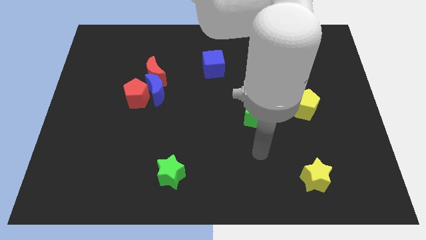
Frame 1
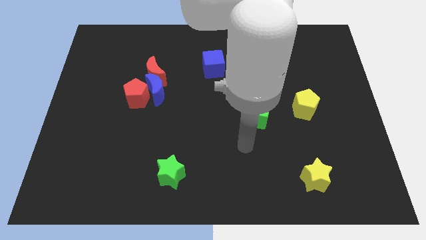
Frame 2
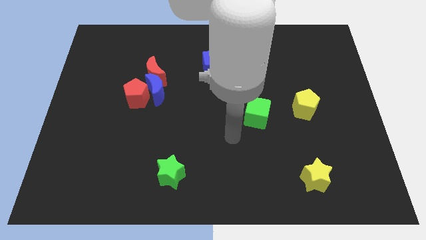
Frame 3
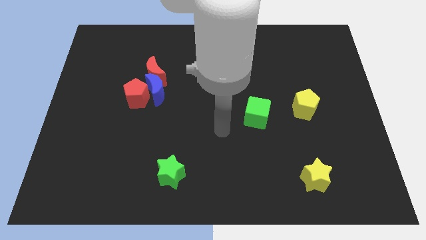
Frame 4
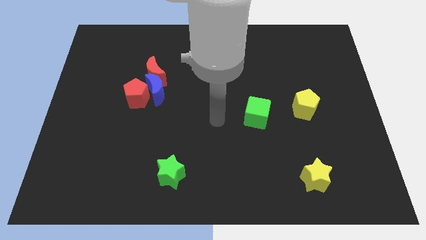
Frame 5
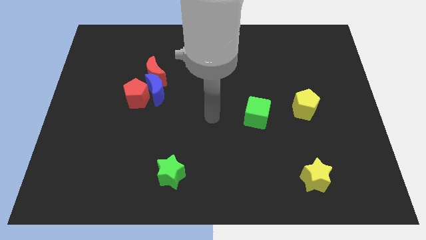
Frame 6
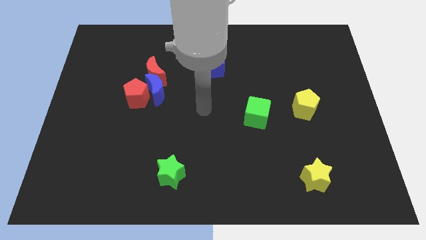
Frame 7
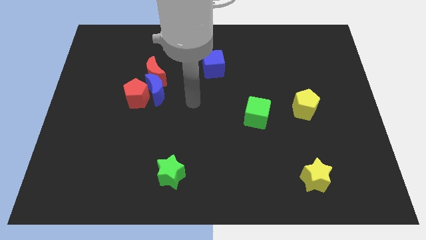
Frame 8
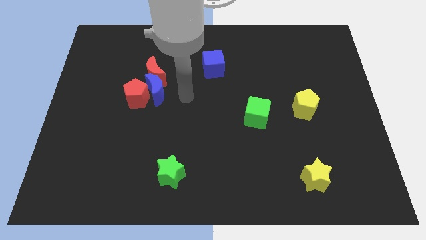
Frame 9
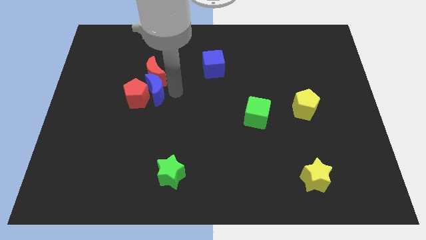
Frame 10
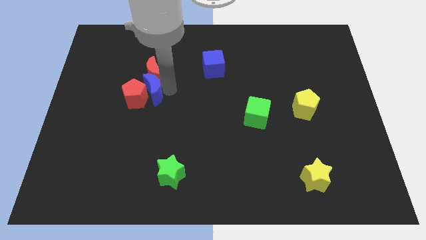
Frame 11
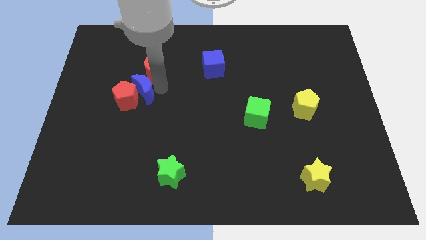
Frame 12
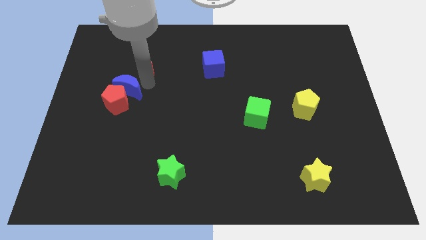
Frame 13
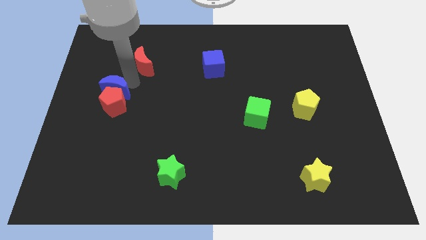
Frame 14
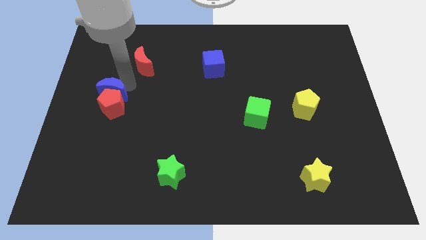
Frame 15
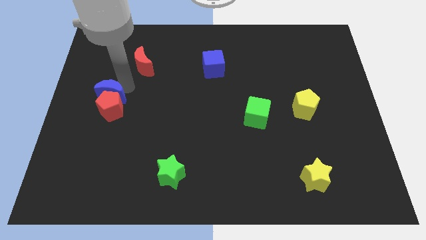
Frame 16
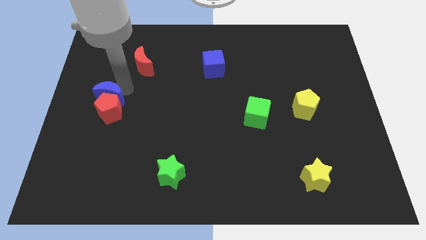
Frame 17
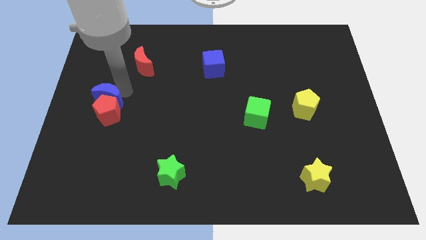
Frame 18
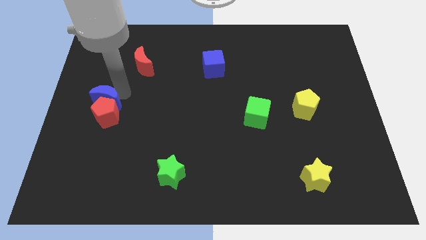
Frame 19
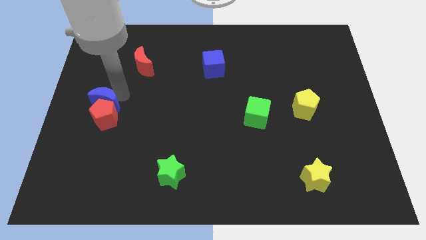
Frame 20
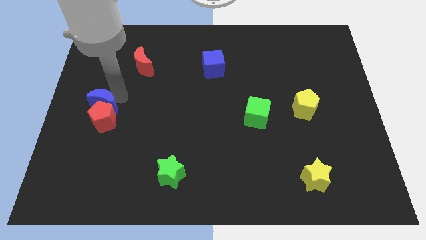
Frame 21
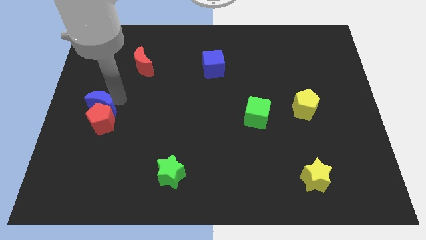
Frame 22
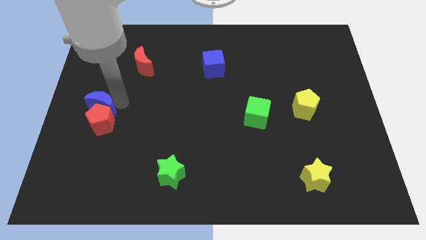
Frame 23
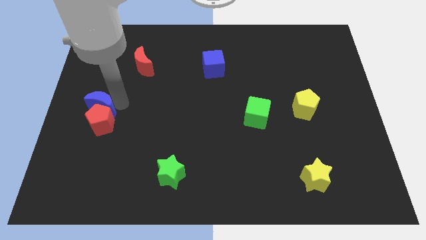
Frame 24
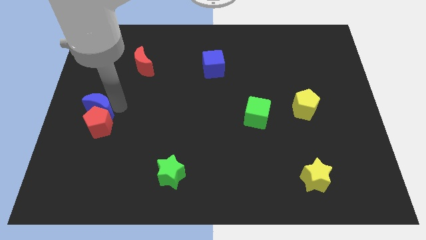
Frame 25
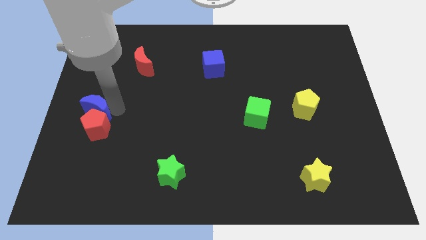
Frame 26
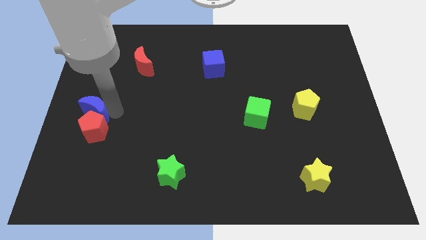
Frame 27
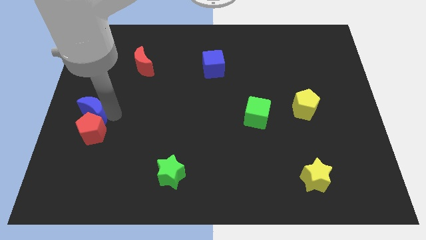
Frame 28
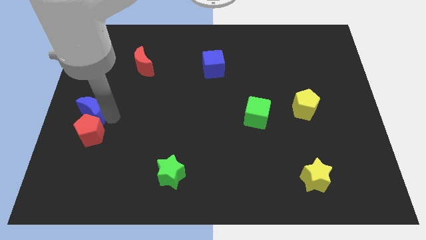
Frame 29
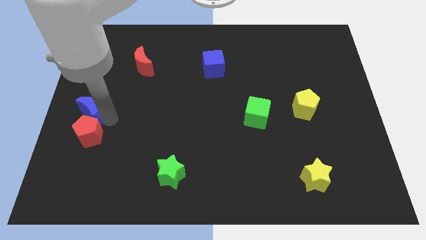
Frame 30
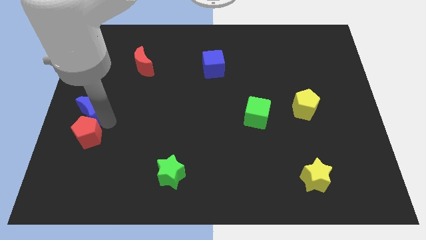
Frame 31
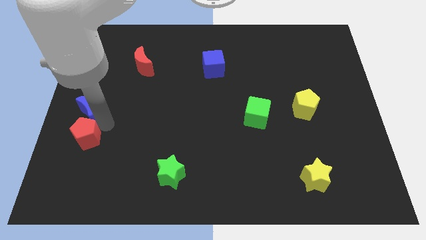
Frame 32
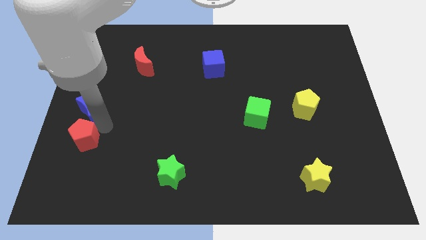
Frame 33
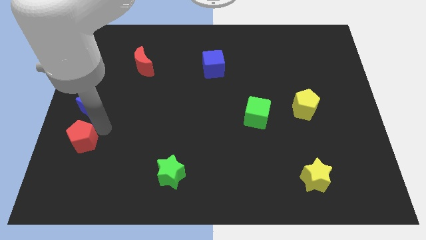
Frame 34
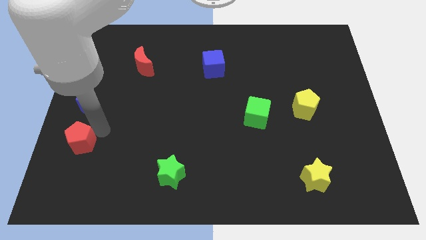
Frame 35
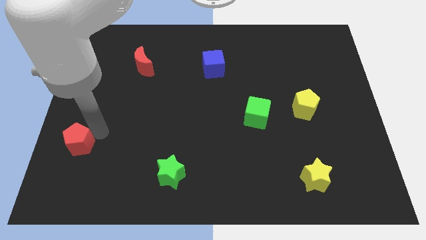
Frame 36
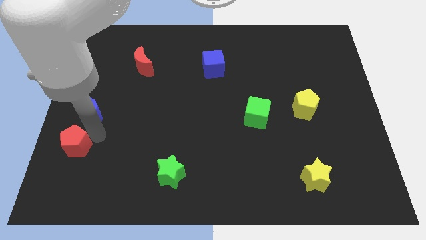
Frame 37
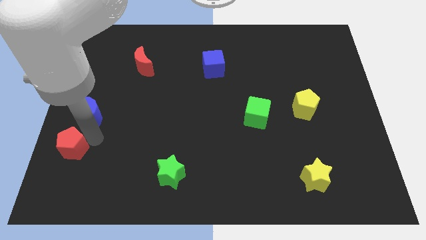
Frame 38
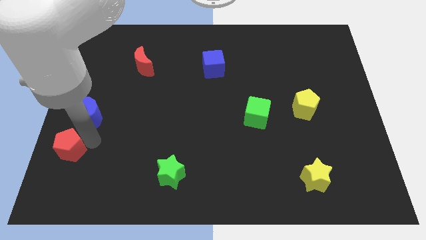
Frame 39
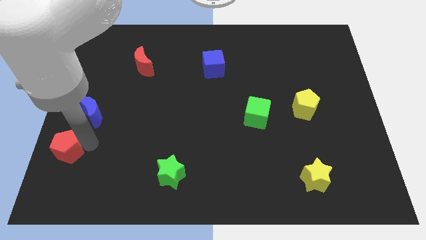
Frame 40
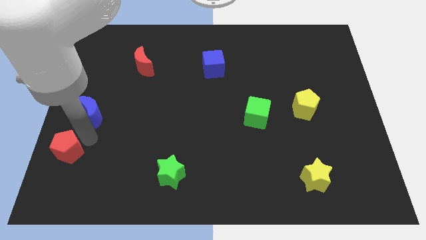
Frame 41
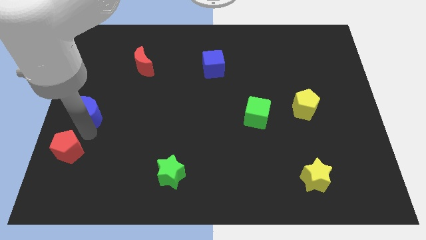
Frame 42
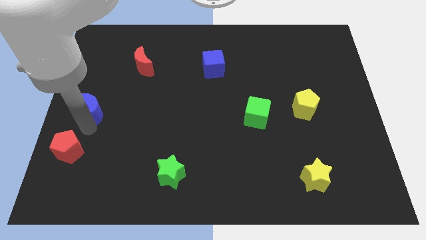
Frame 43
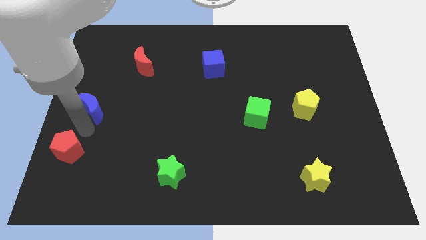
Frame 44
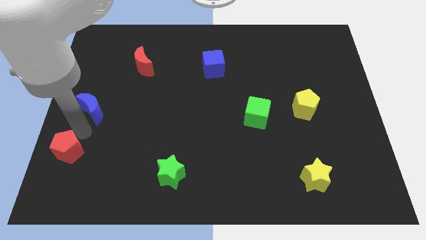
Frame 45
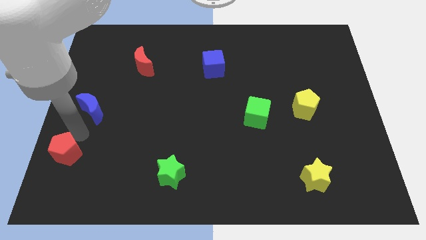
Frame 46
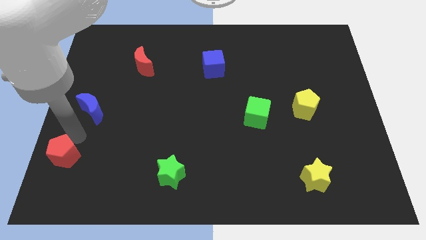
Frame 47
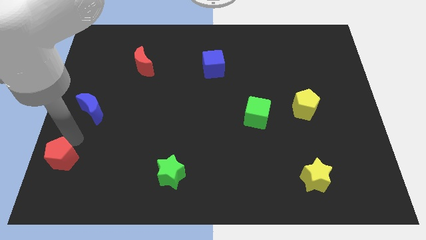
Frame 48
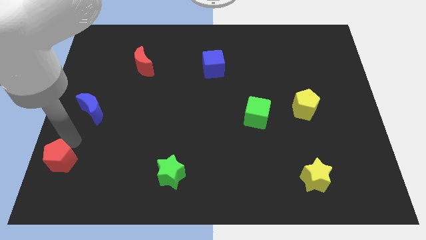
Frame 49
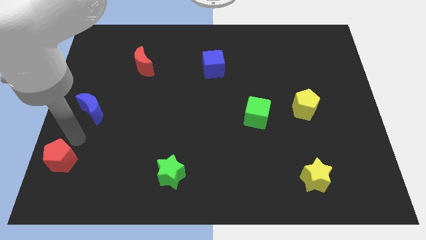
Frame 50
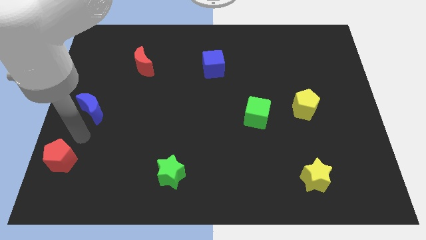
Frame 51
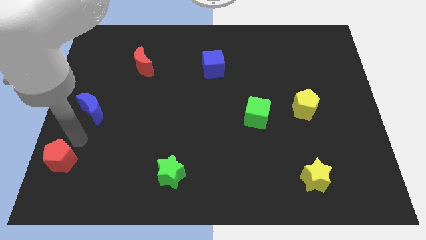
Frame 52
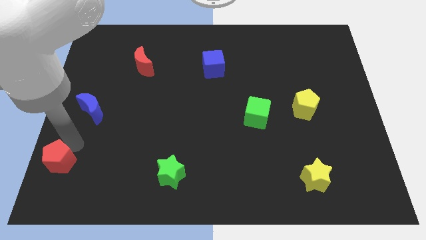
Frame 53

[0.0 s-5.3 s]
push the red pentagon to the bottom left

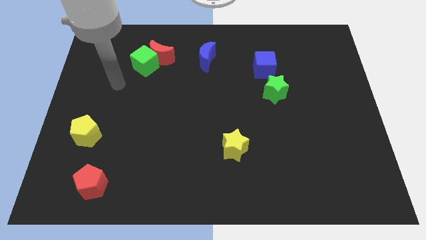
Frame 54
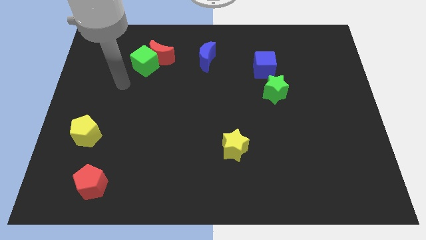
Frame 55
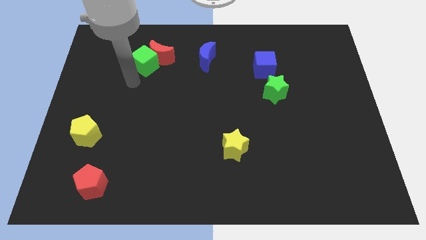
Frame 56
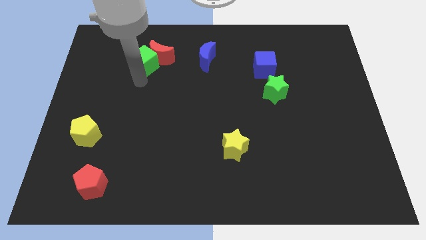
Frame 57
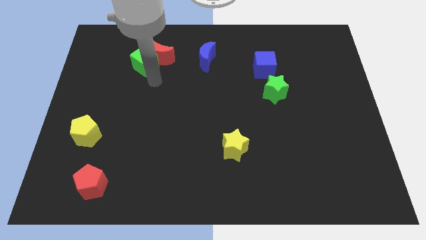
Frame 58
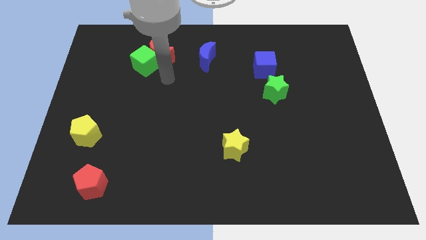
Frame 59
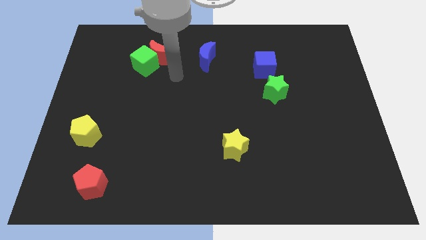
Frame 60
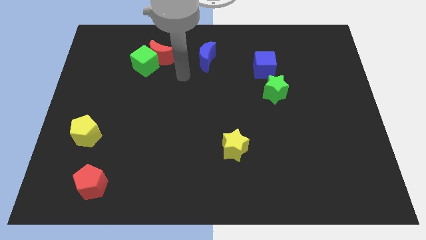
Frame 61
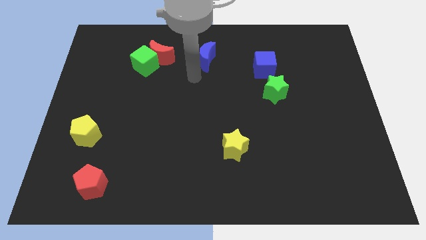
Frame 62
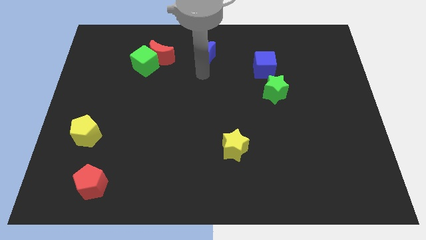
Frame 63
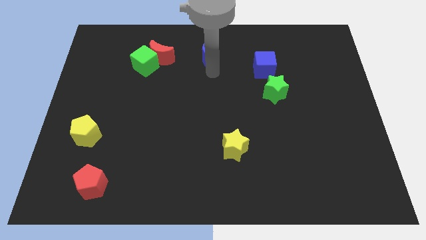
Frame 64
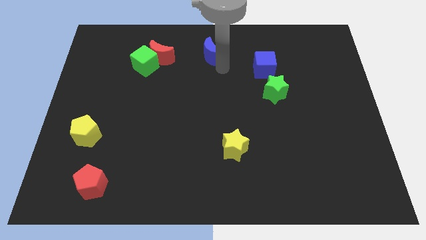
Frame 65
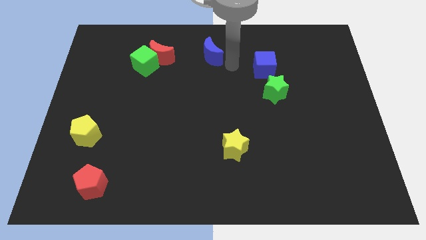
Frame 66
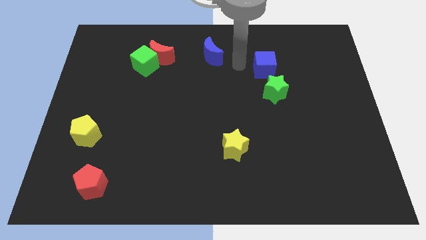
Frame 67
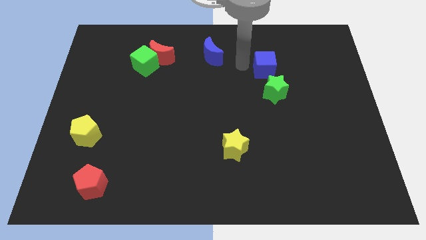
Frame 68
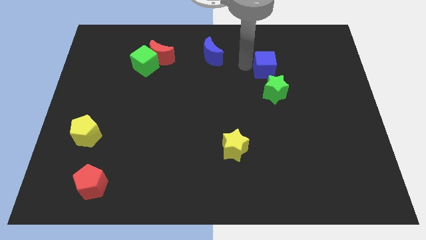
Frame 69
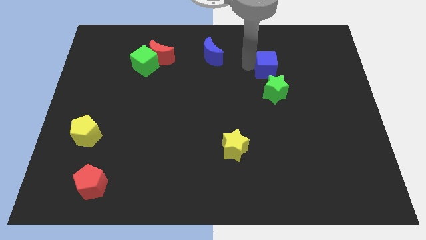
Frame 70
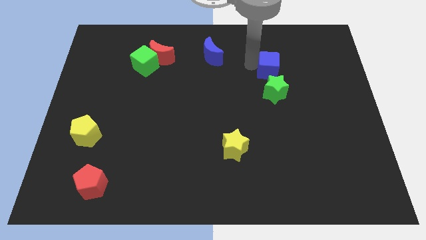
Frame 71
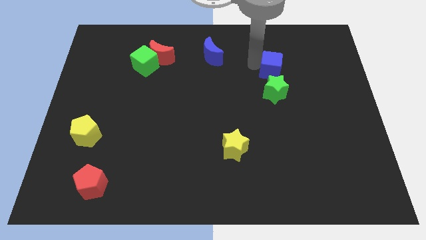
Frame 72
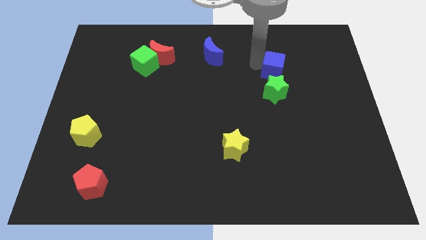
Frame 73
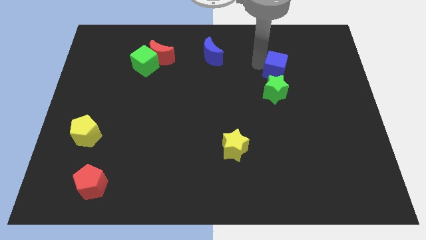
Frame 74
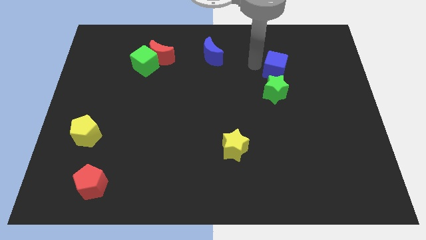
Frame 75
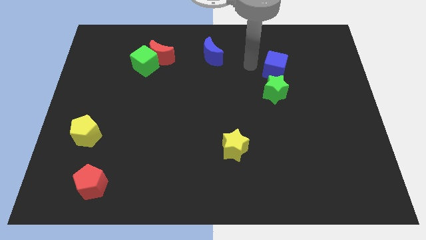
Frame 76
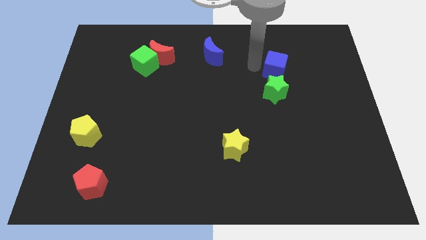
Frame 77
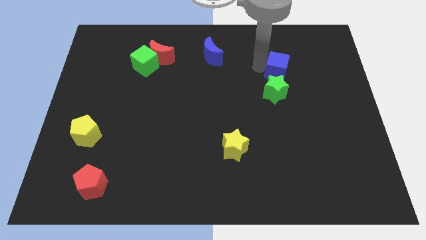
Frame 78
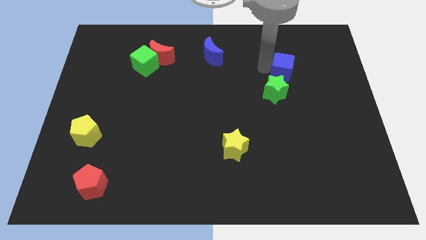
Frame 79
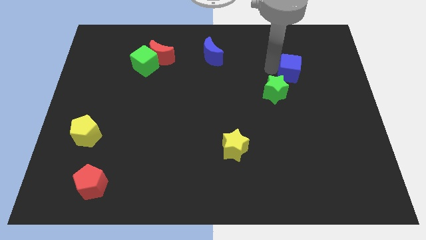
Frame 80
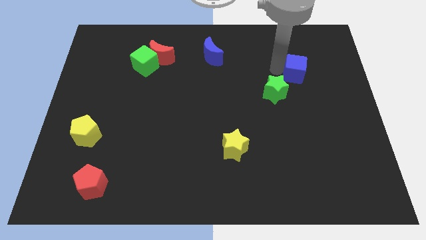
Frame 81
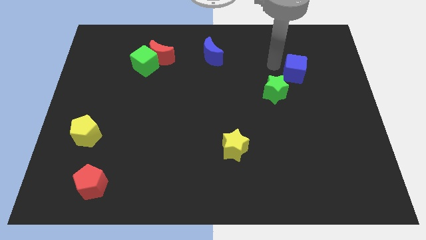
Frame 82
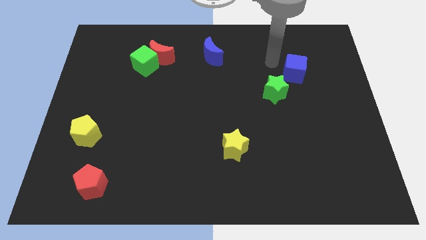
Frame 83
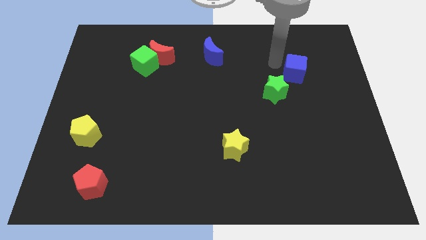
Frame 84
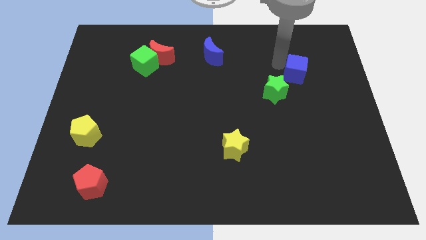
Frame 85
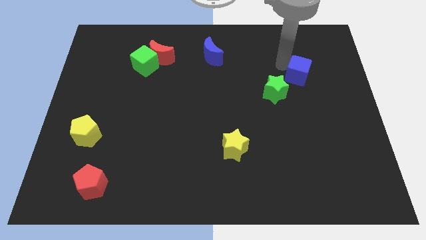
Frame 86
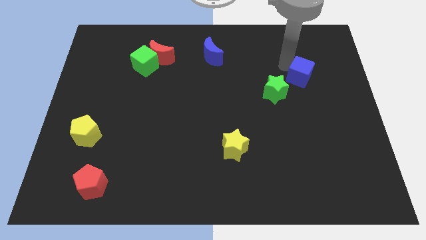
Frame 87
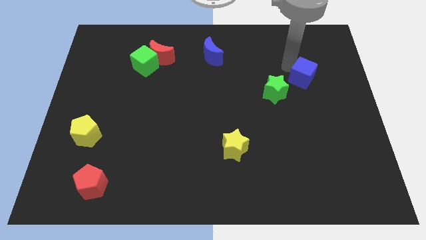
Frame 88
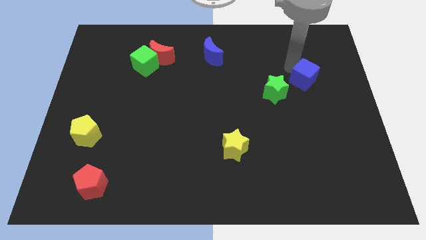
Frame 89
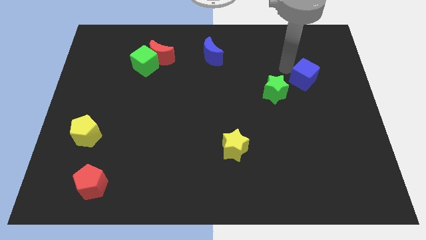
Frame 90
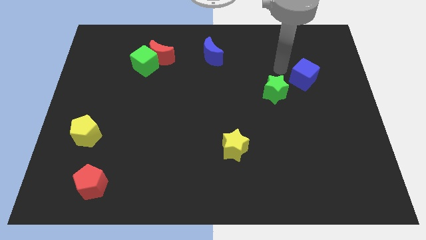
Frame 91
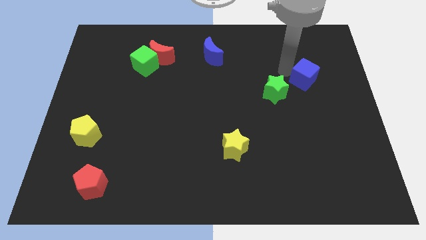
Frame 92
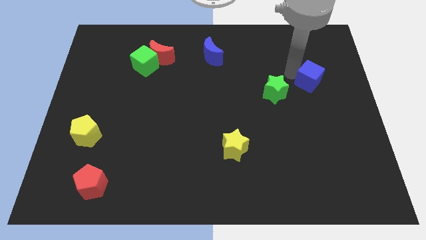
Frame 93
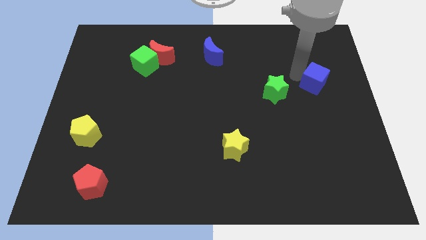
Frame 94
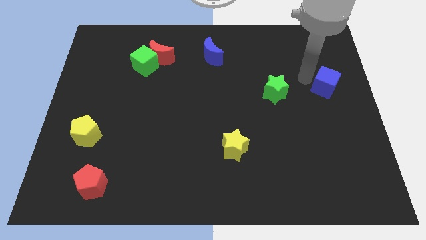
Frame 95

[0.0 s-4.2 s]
put the blue cube to the right side
